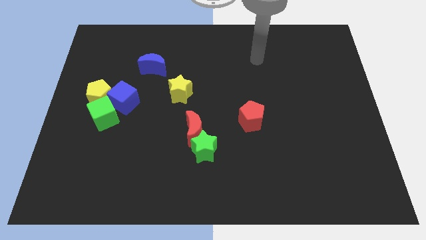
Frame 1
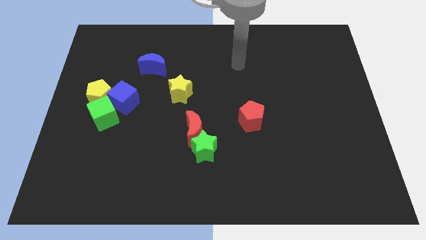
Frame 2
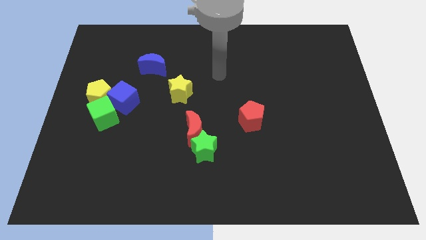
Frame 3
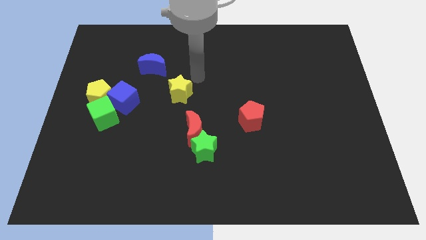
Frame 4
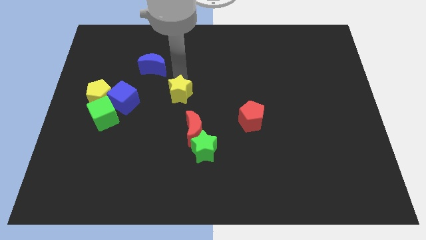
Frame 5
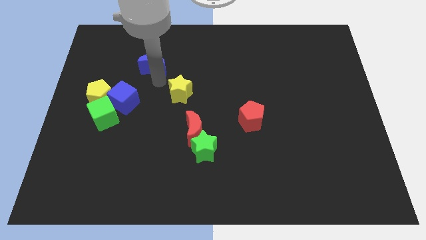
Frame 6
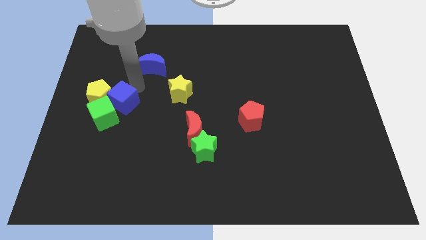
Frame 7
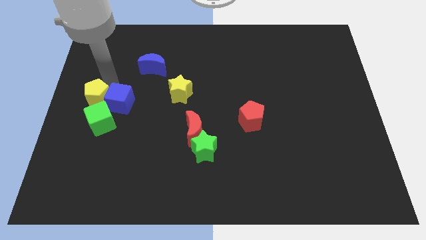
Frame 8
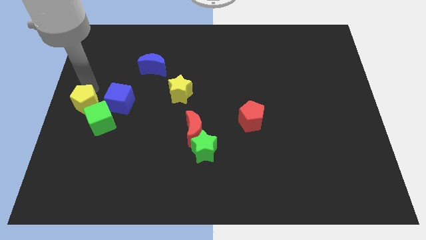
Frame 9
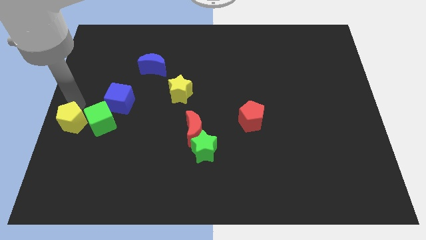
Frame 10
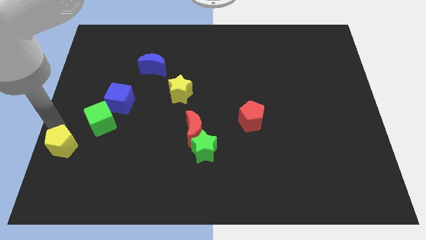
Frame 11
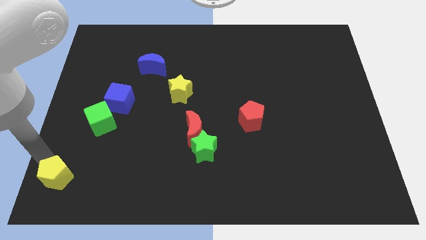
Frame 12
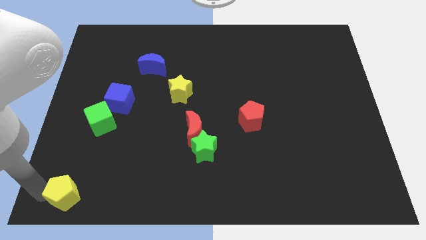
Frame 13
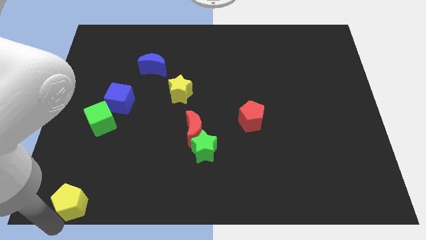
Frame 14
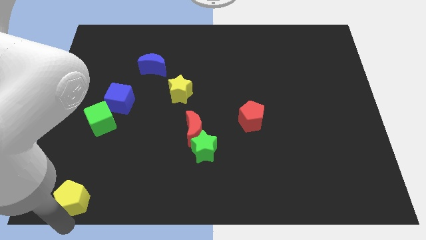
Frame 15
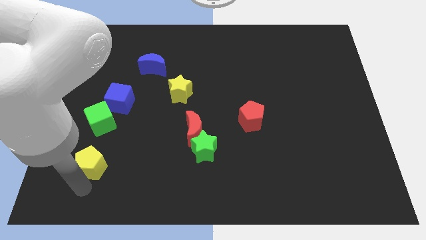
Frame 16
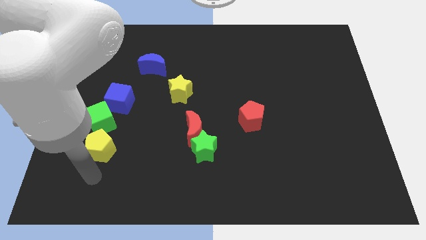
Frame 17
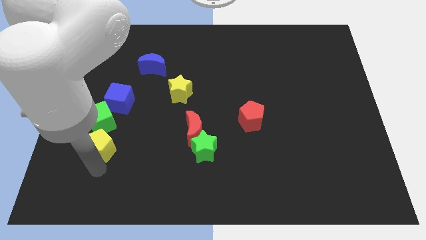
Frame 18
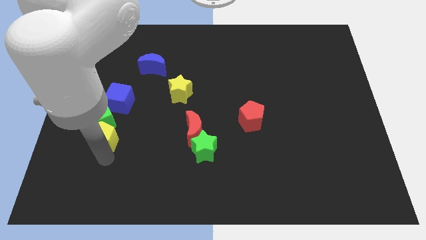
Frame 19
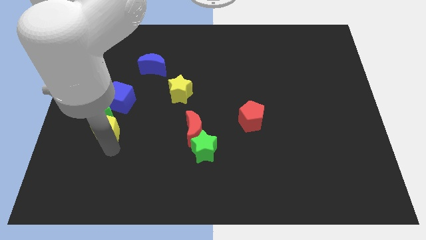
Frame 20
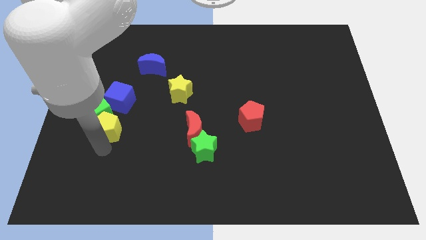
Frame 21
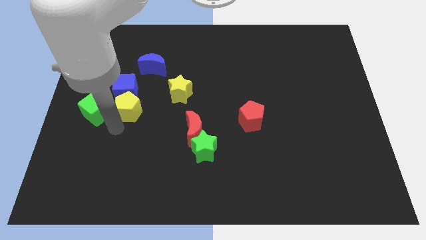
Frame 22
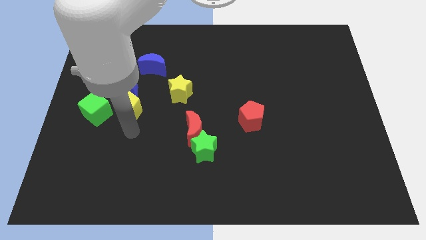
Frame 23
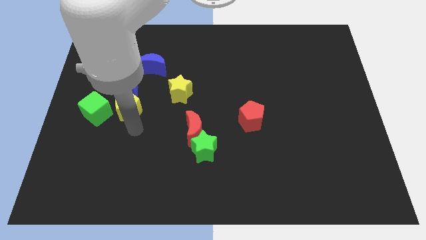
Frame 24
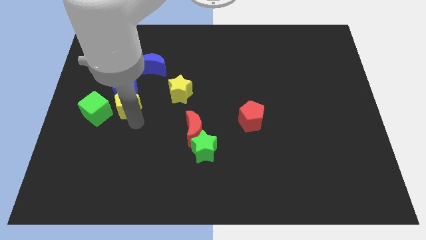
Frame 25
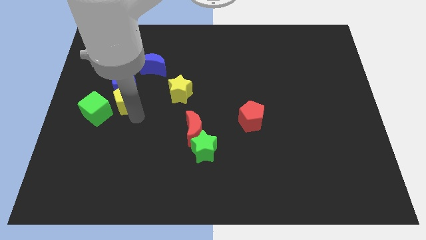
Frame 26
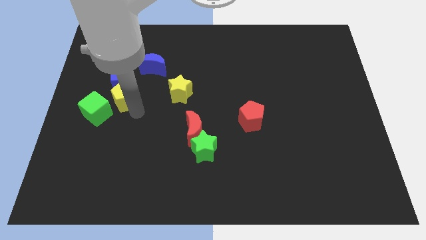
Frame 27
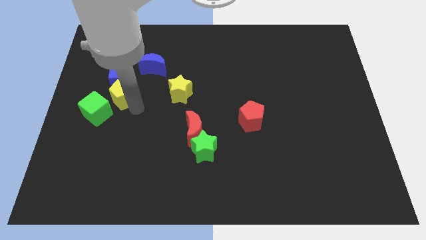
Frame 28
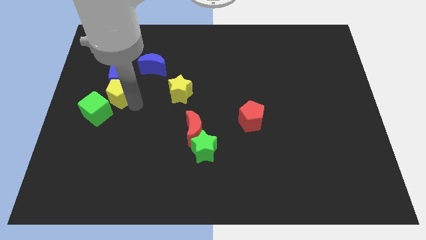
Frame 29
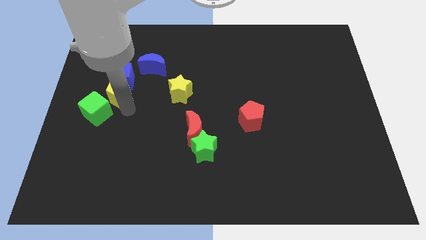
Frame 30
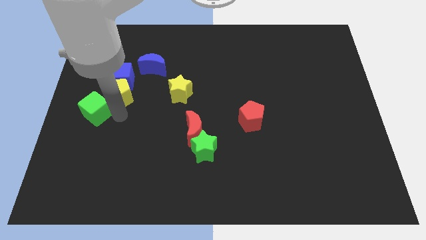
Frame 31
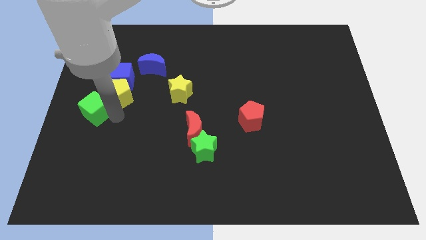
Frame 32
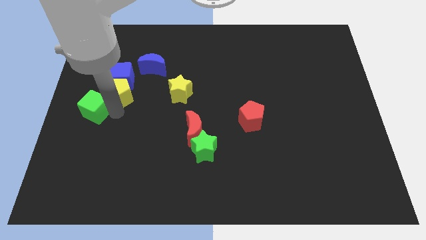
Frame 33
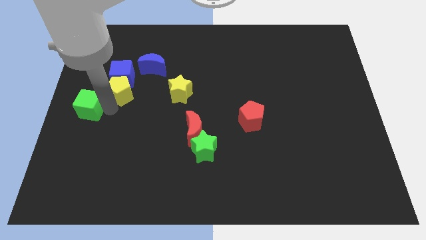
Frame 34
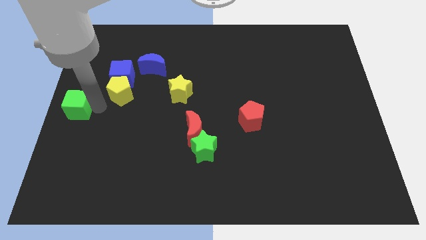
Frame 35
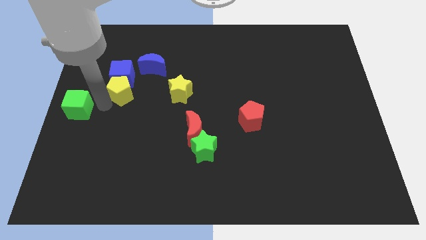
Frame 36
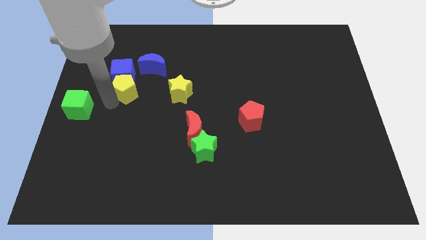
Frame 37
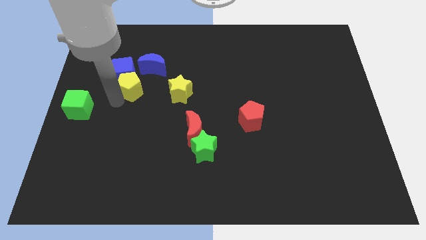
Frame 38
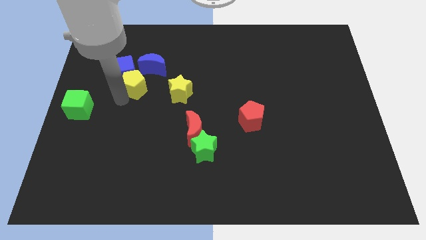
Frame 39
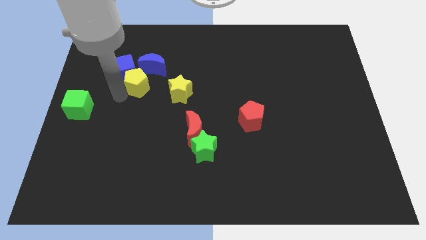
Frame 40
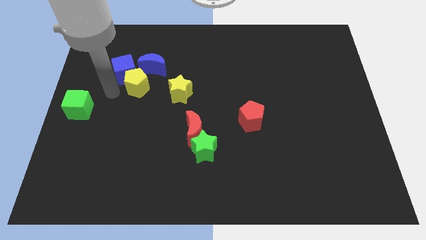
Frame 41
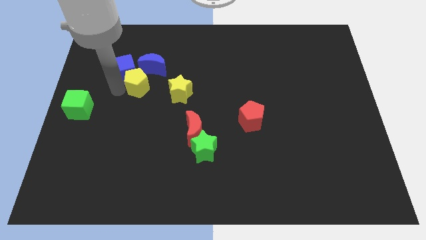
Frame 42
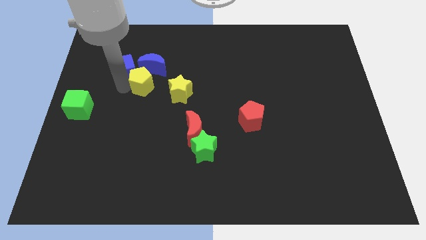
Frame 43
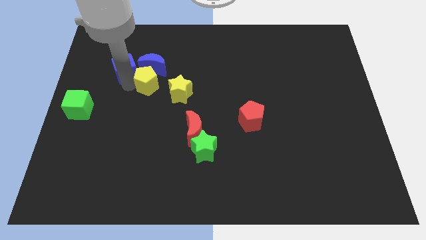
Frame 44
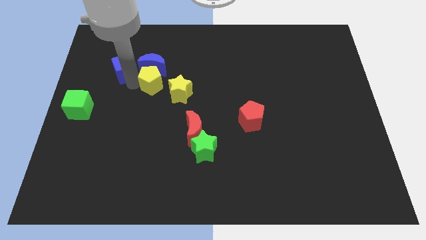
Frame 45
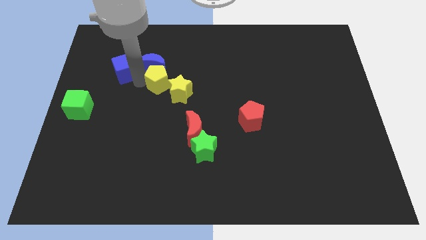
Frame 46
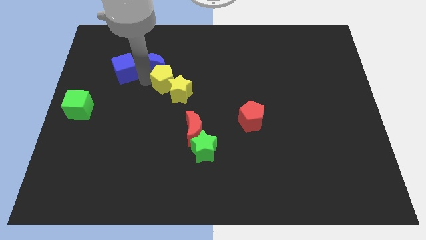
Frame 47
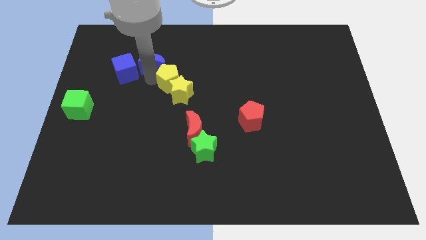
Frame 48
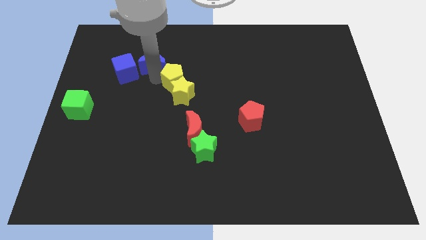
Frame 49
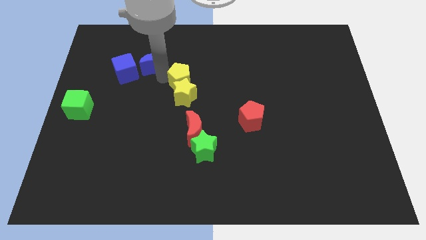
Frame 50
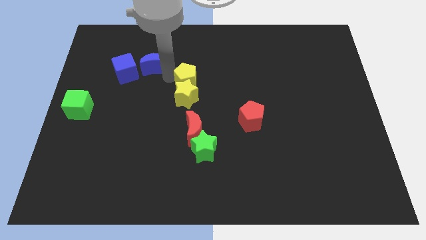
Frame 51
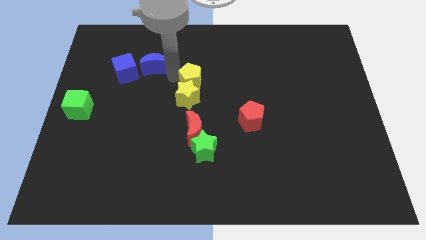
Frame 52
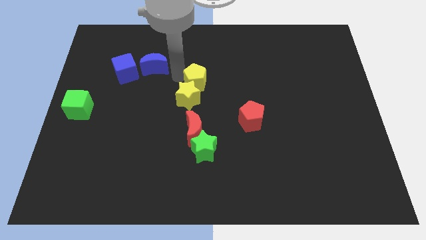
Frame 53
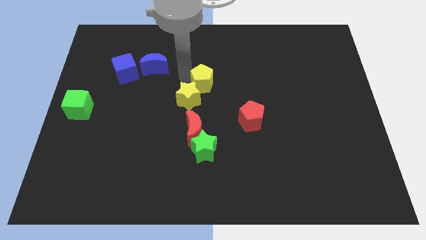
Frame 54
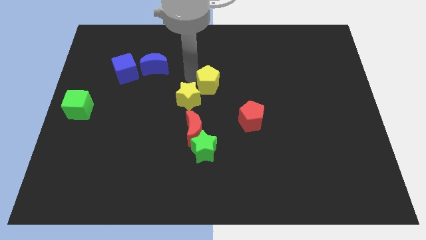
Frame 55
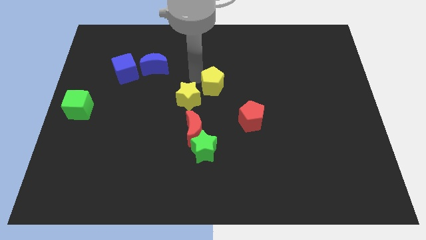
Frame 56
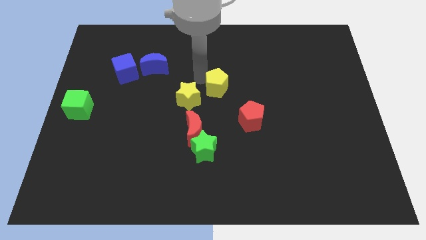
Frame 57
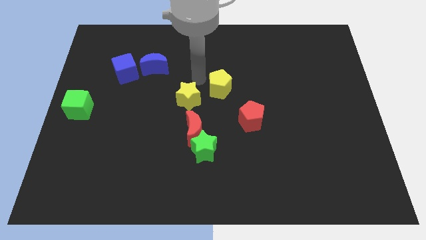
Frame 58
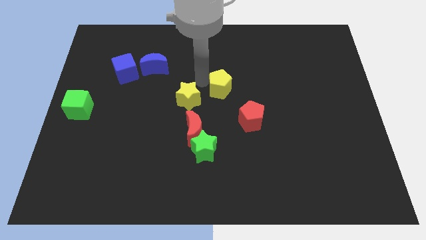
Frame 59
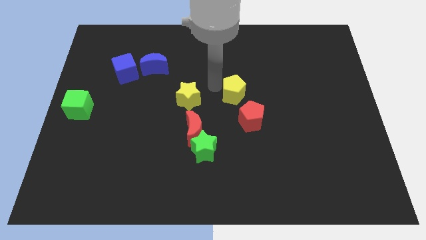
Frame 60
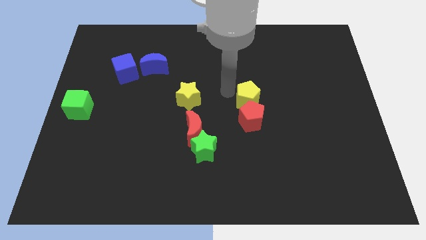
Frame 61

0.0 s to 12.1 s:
put the yellow pentagon to the top right of the red pentagon

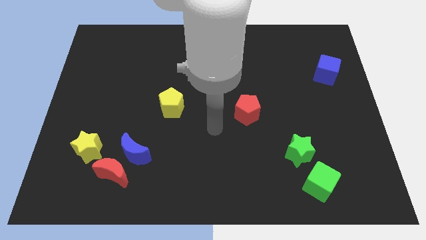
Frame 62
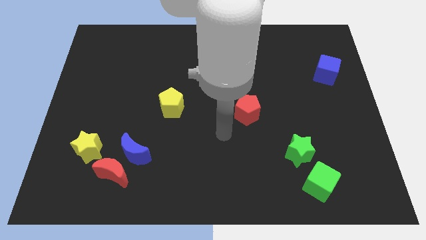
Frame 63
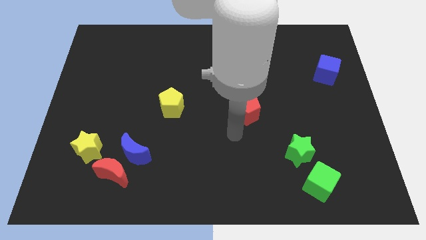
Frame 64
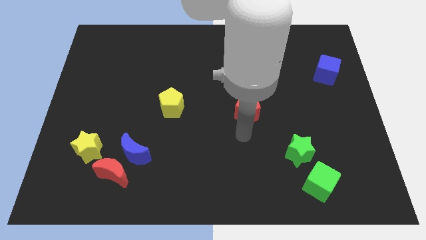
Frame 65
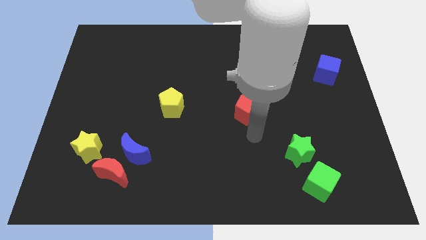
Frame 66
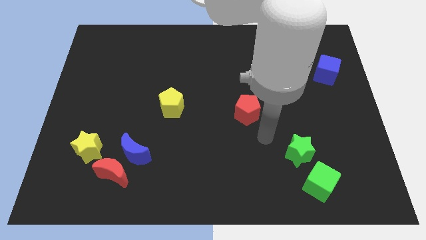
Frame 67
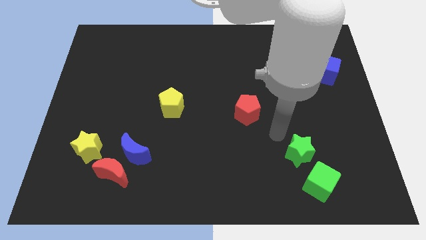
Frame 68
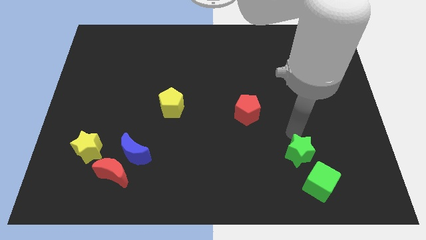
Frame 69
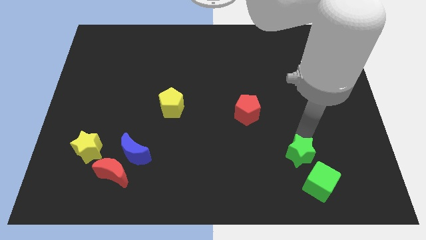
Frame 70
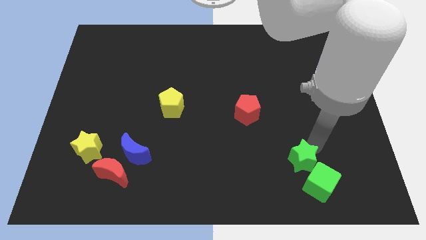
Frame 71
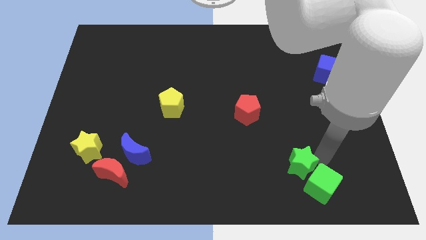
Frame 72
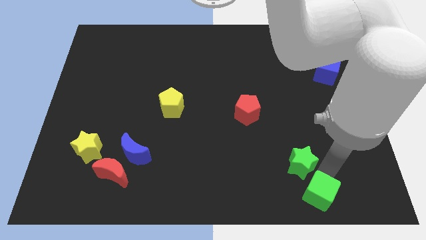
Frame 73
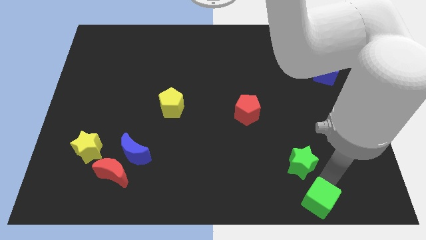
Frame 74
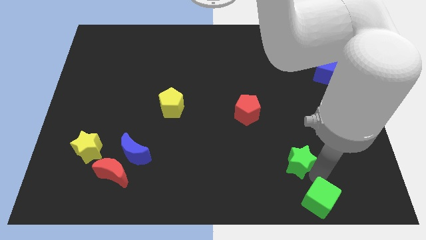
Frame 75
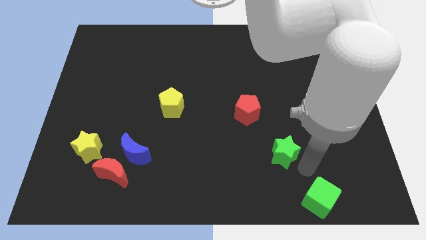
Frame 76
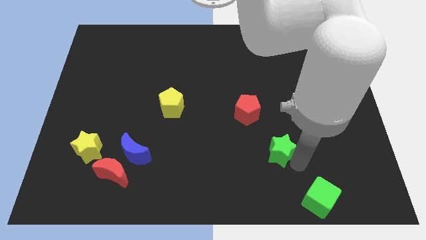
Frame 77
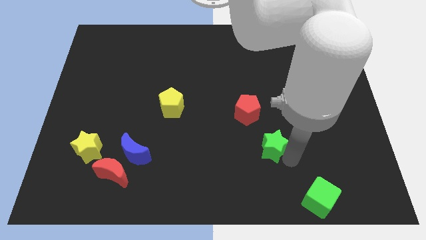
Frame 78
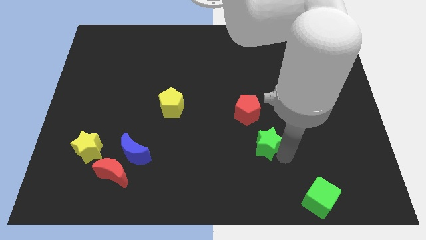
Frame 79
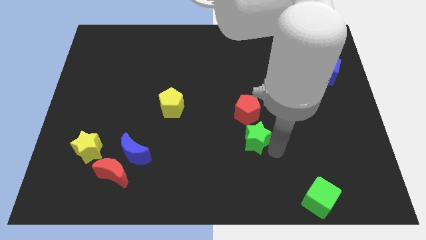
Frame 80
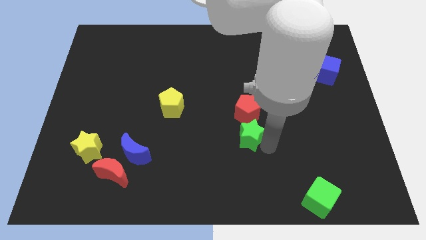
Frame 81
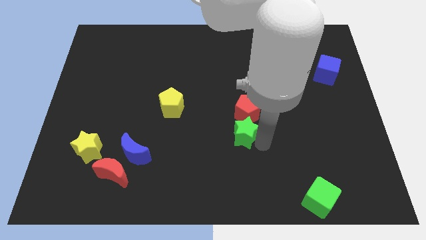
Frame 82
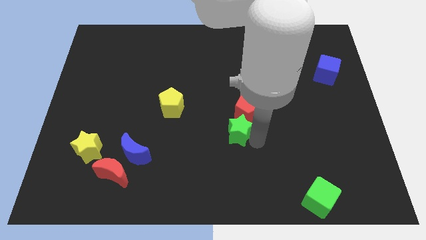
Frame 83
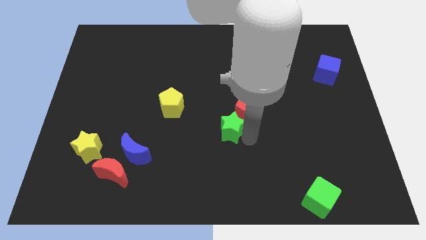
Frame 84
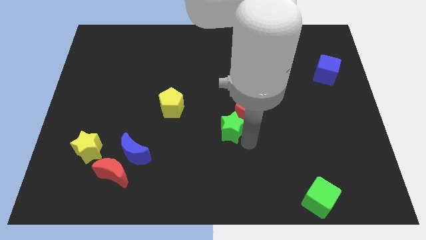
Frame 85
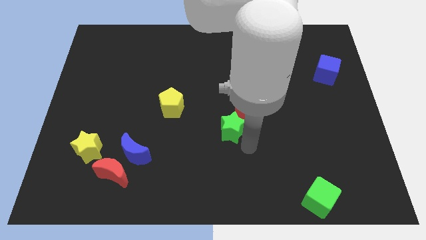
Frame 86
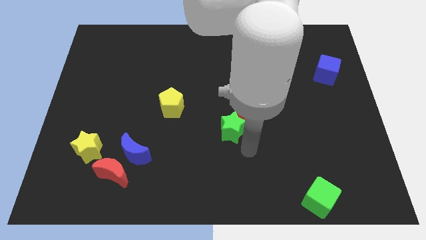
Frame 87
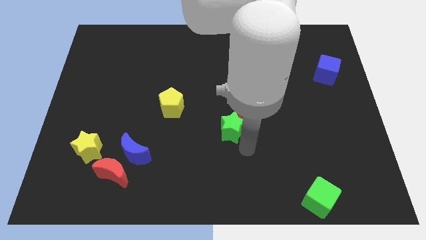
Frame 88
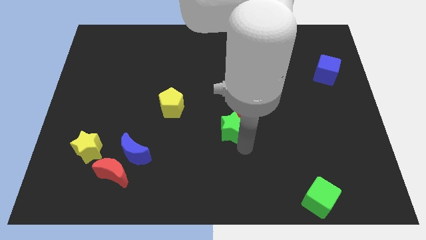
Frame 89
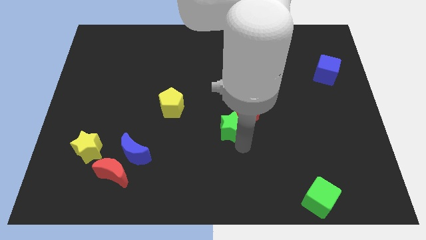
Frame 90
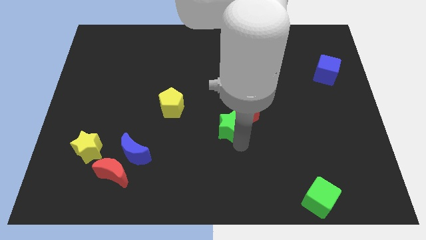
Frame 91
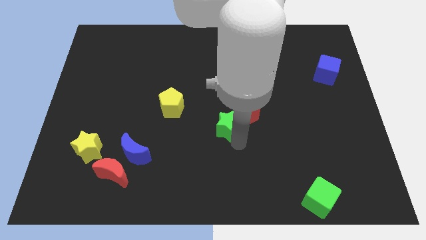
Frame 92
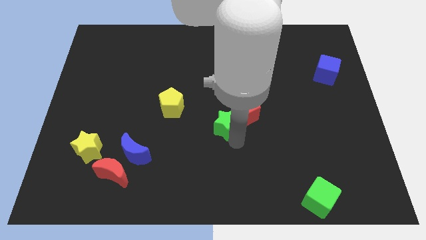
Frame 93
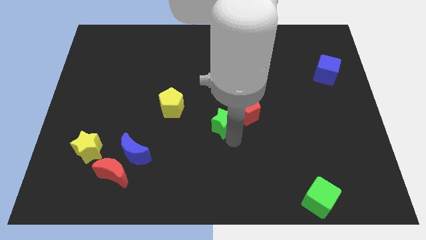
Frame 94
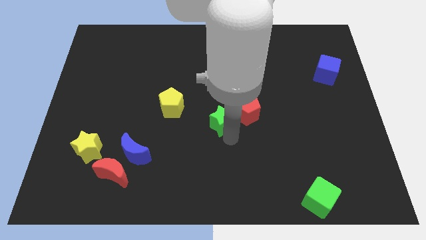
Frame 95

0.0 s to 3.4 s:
slide the green star to the right side of the yellow pentagon
